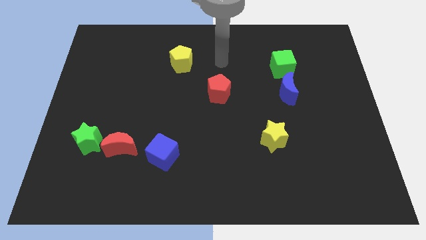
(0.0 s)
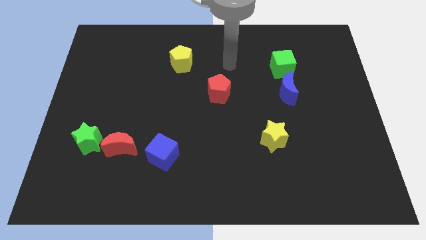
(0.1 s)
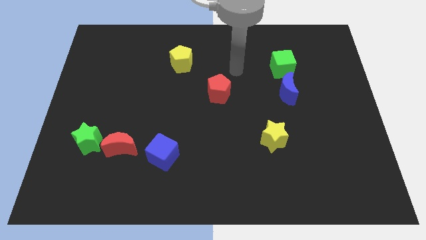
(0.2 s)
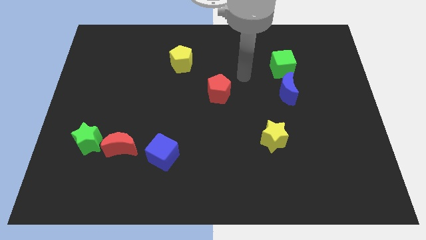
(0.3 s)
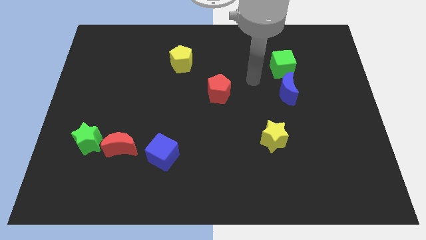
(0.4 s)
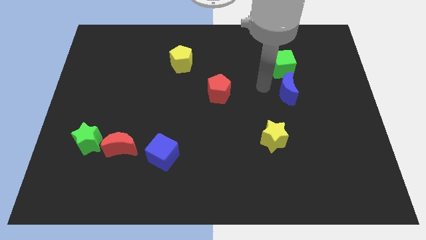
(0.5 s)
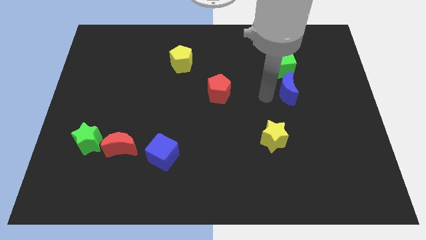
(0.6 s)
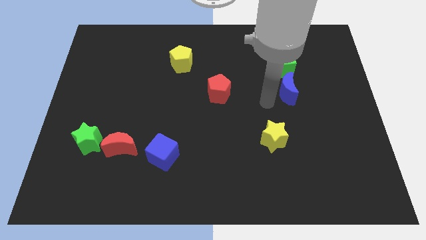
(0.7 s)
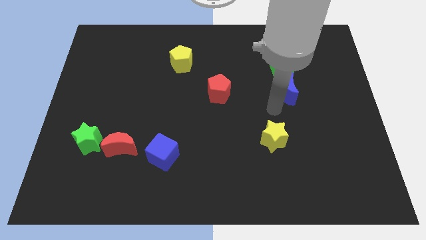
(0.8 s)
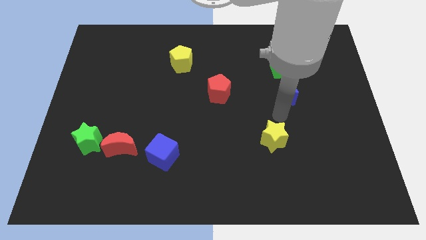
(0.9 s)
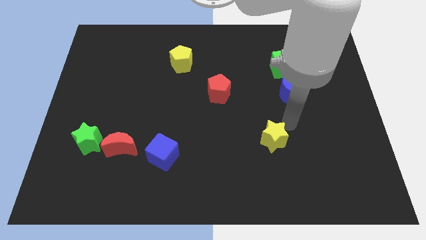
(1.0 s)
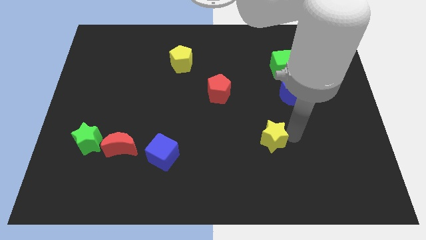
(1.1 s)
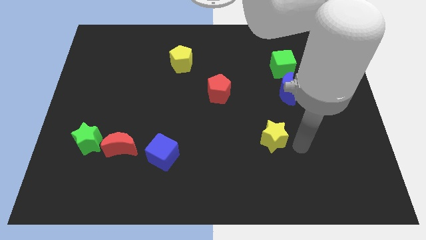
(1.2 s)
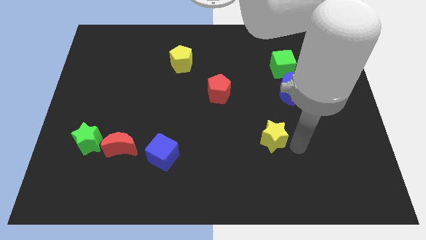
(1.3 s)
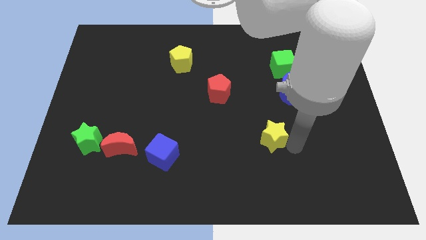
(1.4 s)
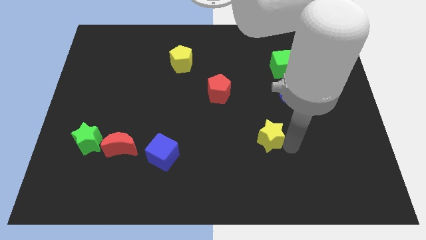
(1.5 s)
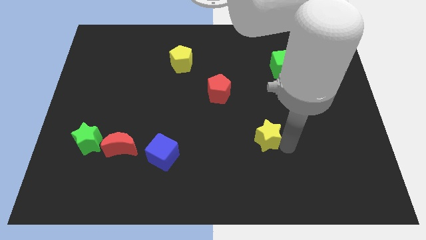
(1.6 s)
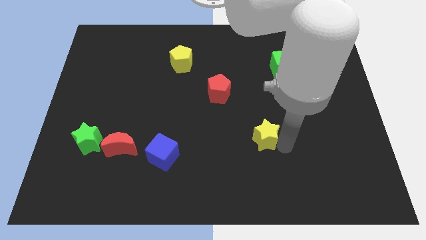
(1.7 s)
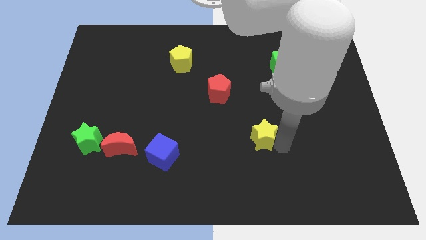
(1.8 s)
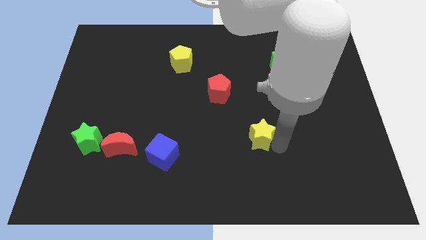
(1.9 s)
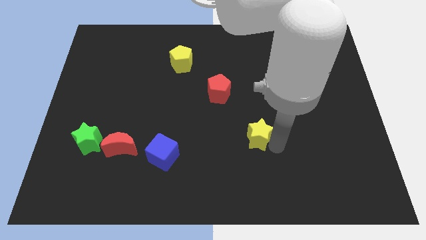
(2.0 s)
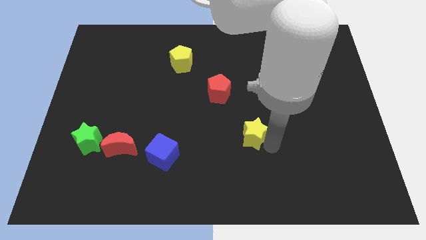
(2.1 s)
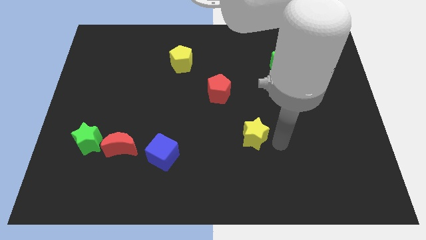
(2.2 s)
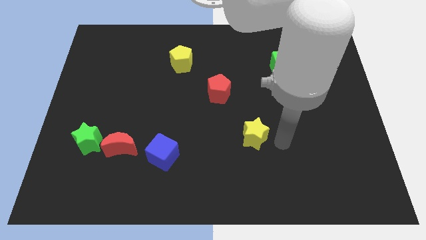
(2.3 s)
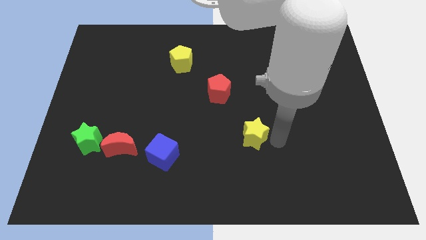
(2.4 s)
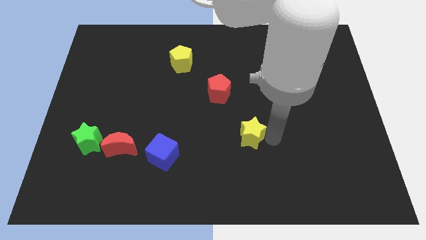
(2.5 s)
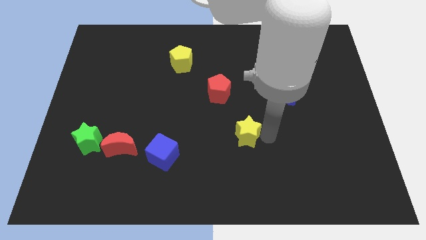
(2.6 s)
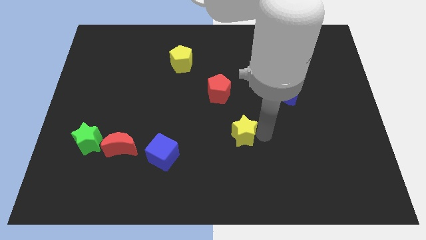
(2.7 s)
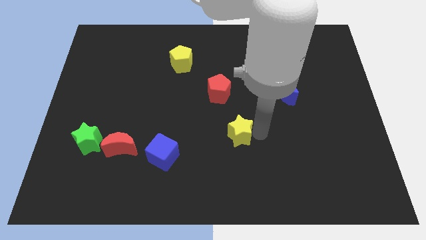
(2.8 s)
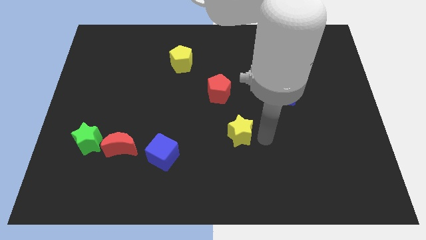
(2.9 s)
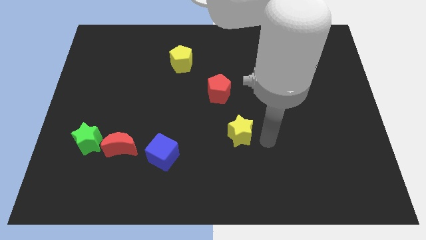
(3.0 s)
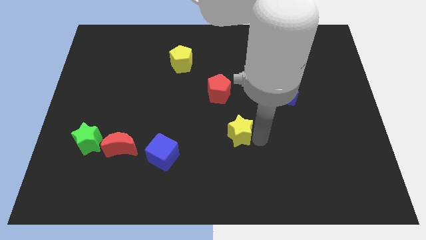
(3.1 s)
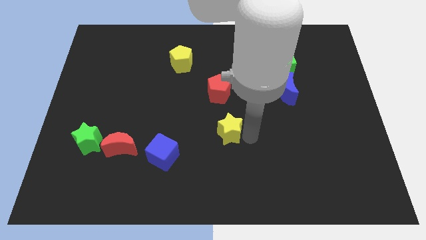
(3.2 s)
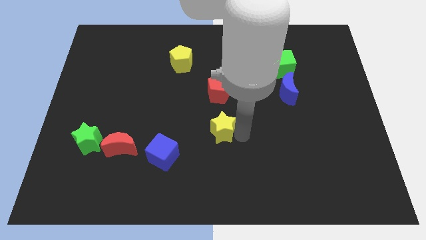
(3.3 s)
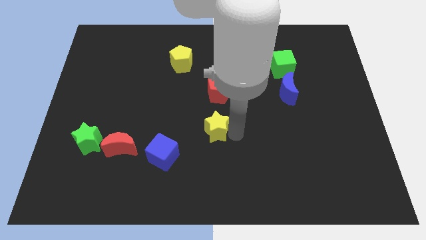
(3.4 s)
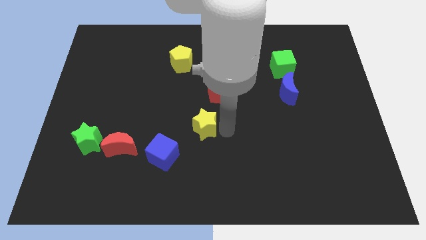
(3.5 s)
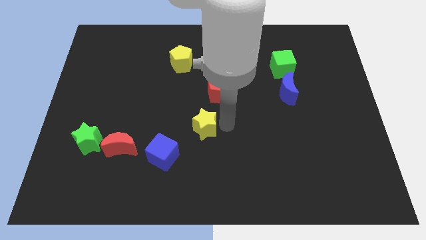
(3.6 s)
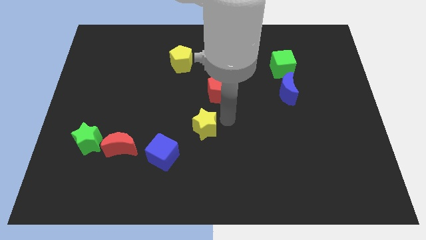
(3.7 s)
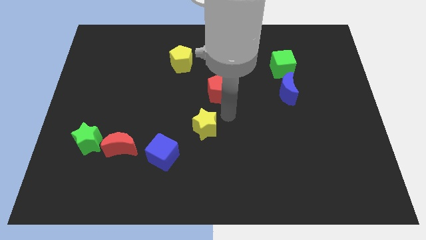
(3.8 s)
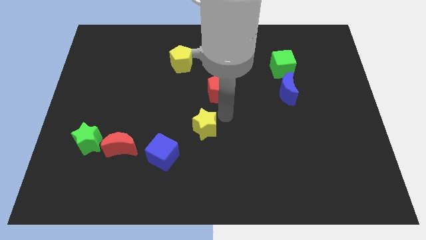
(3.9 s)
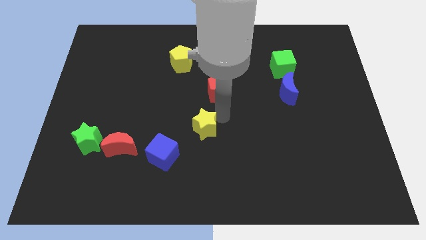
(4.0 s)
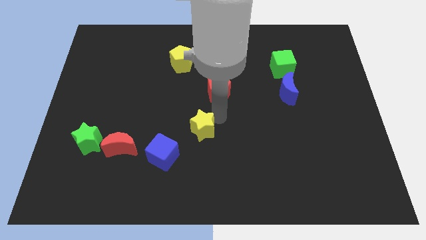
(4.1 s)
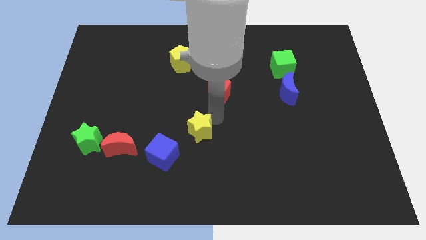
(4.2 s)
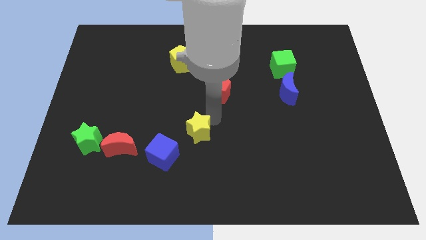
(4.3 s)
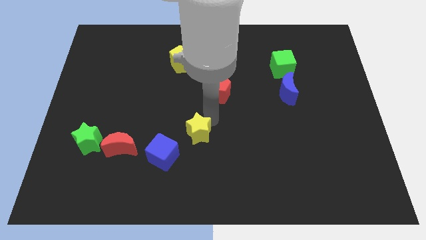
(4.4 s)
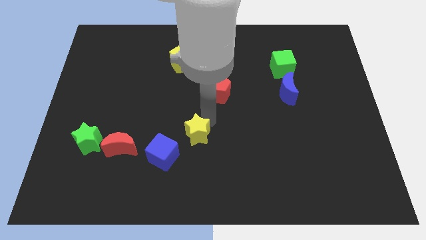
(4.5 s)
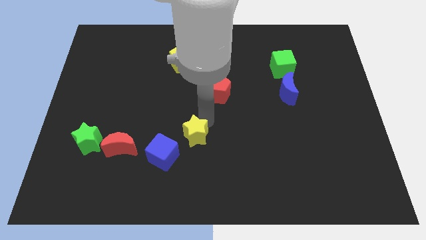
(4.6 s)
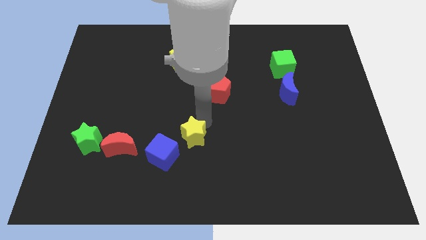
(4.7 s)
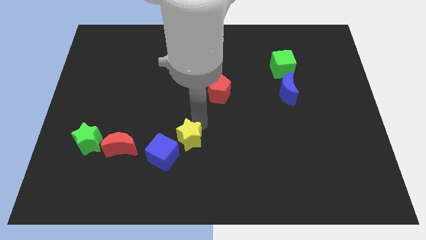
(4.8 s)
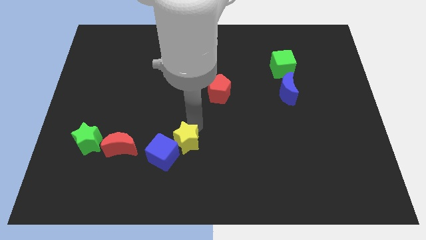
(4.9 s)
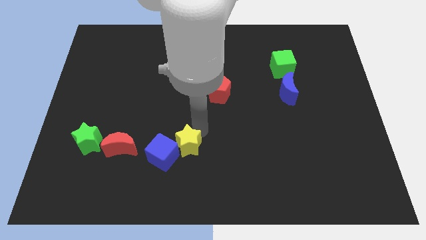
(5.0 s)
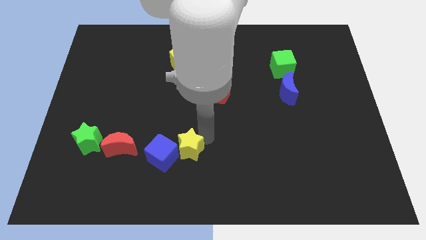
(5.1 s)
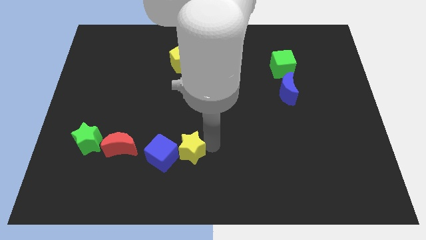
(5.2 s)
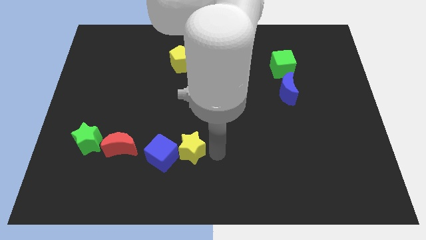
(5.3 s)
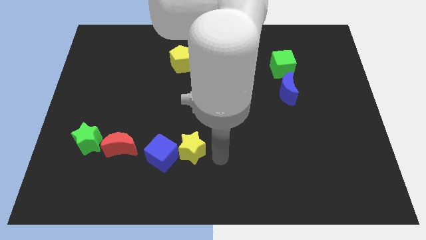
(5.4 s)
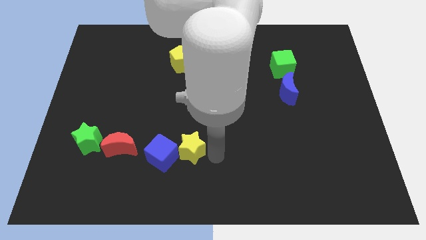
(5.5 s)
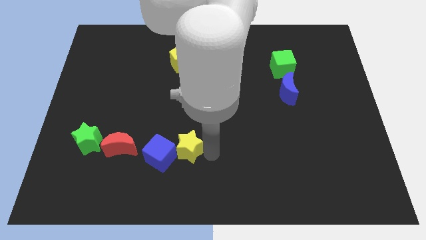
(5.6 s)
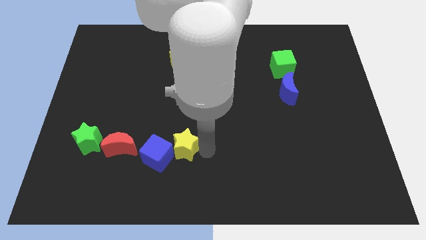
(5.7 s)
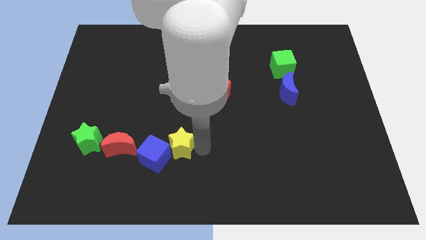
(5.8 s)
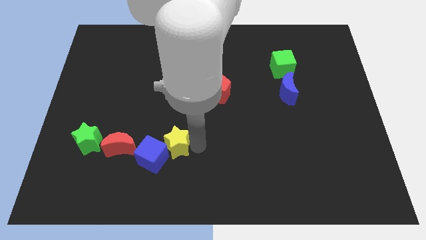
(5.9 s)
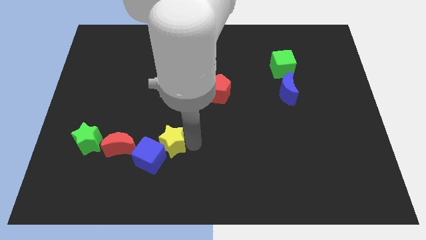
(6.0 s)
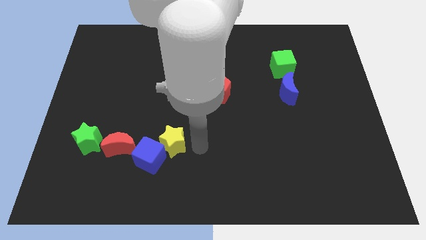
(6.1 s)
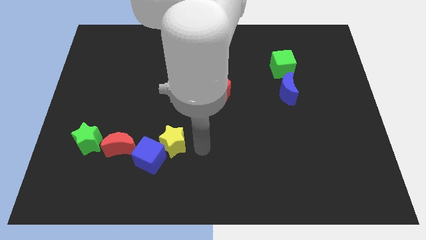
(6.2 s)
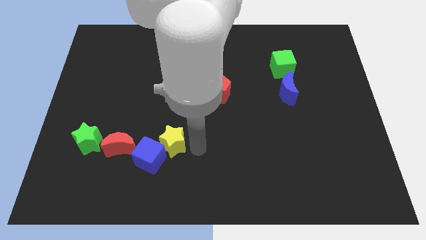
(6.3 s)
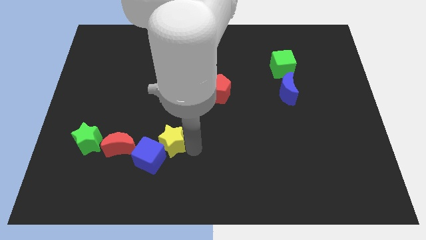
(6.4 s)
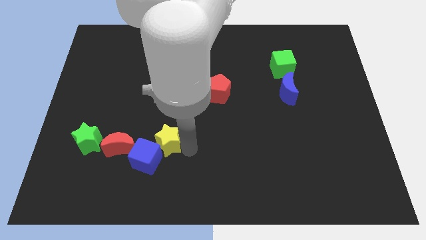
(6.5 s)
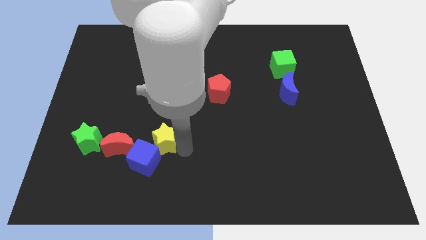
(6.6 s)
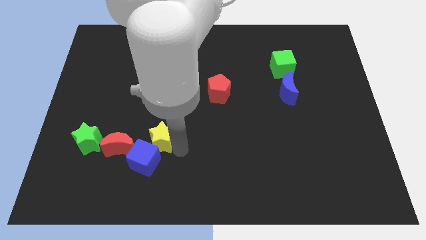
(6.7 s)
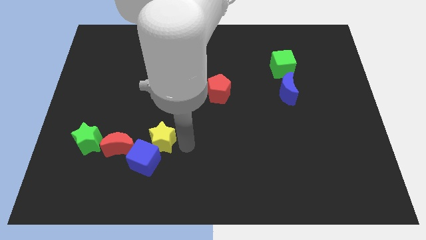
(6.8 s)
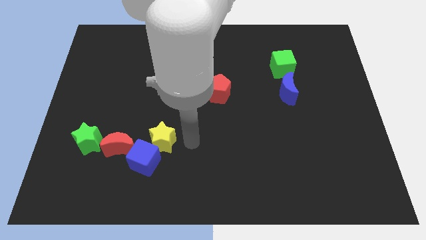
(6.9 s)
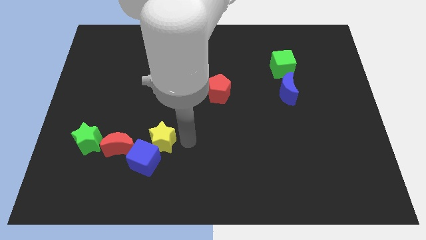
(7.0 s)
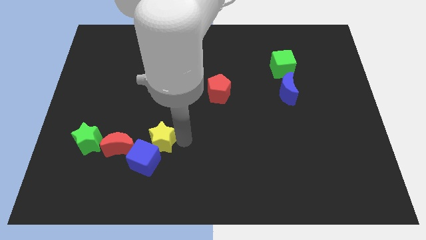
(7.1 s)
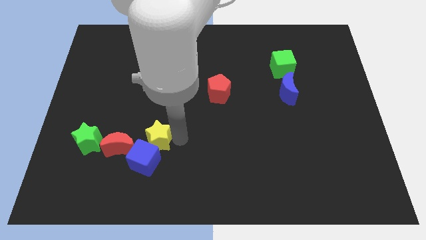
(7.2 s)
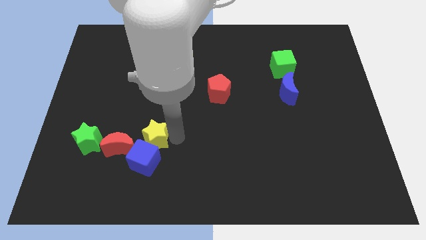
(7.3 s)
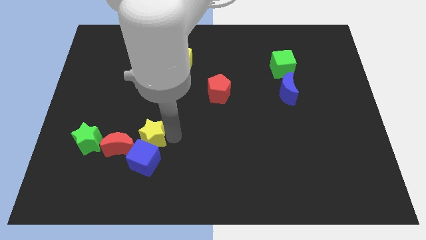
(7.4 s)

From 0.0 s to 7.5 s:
push the yellow star to the top left side of the blue cube
